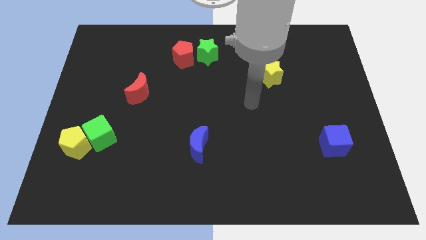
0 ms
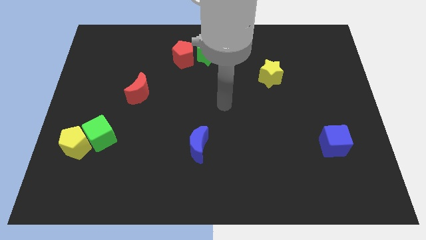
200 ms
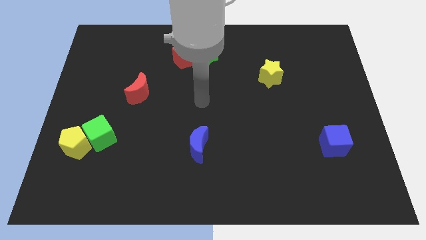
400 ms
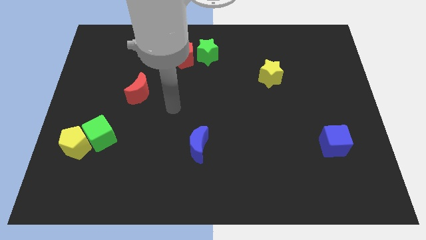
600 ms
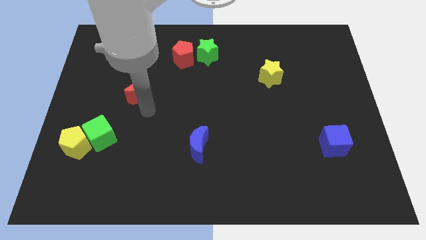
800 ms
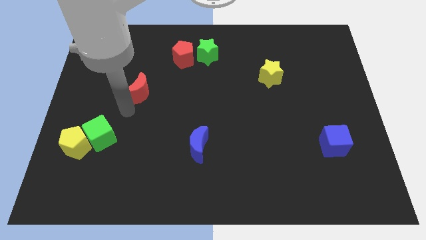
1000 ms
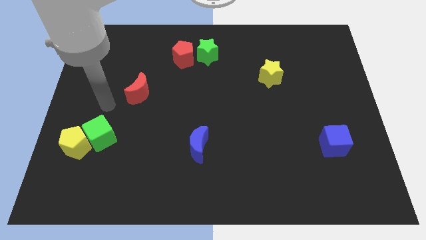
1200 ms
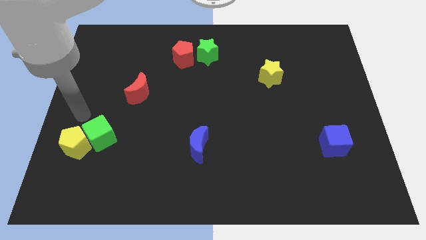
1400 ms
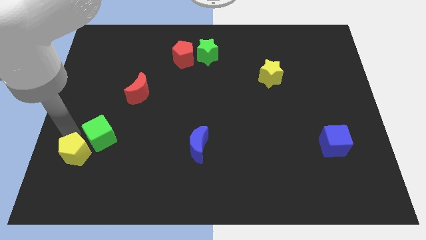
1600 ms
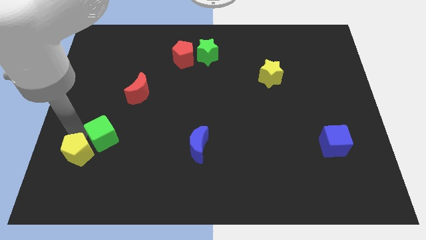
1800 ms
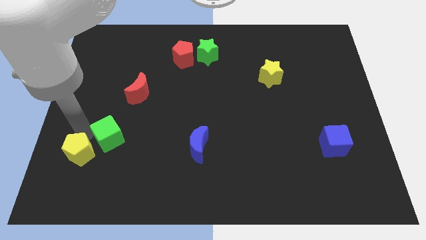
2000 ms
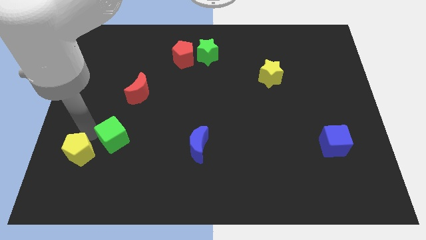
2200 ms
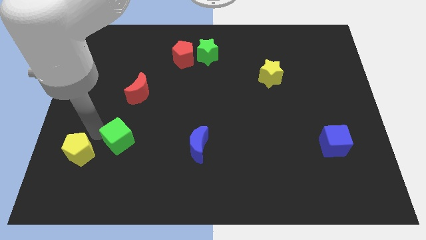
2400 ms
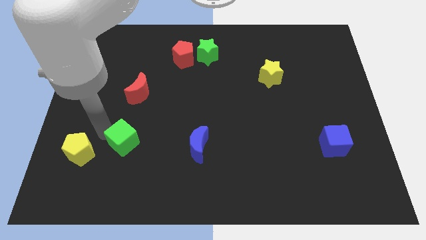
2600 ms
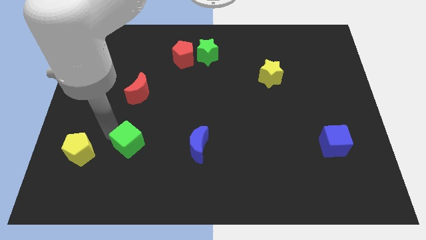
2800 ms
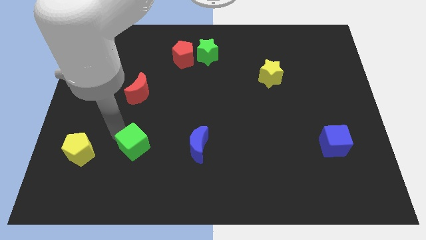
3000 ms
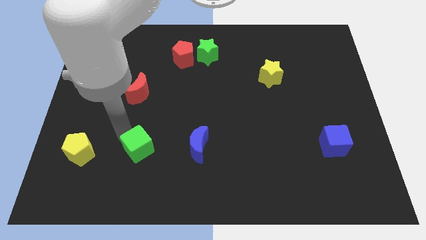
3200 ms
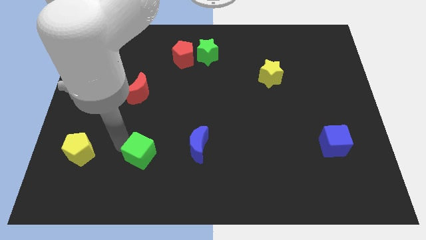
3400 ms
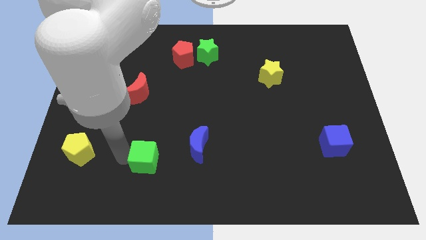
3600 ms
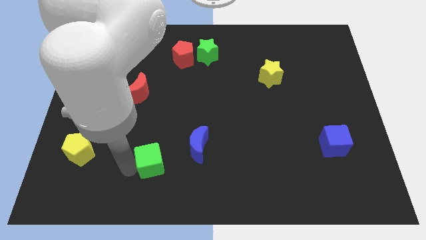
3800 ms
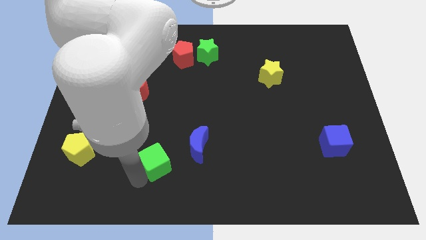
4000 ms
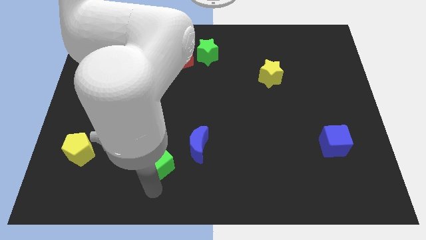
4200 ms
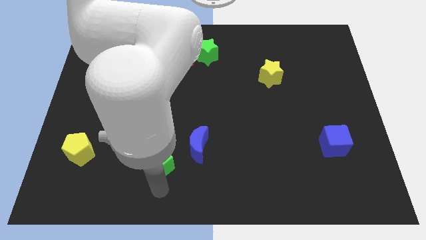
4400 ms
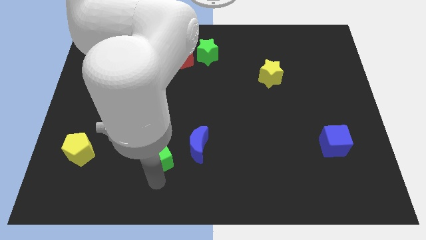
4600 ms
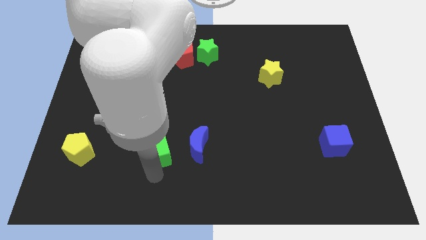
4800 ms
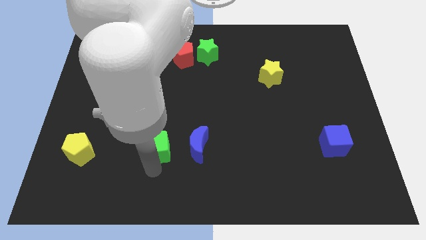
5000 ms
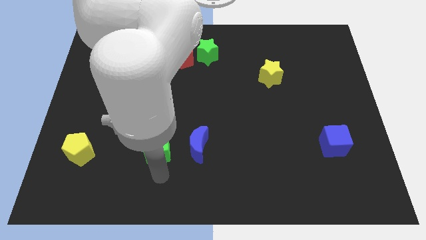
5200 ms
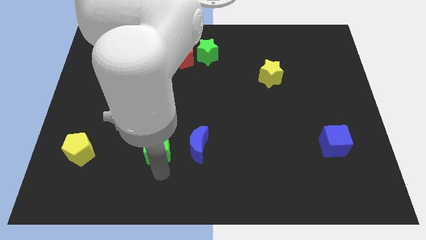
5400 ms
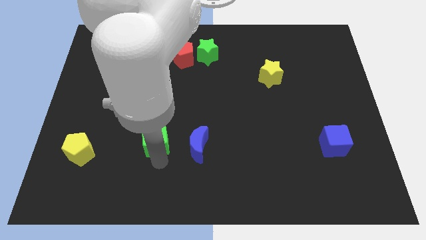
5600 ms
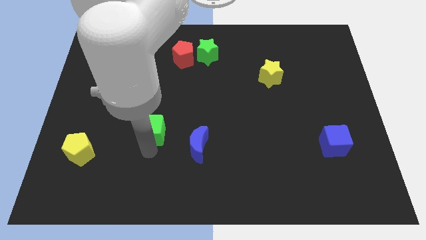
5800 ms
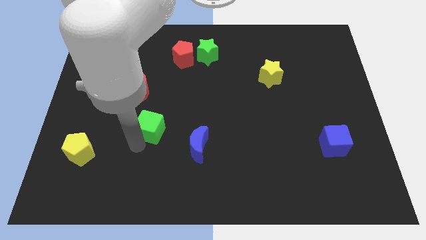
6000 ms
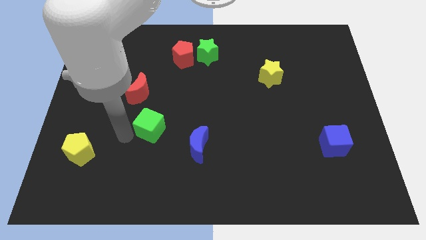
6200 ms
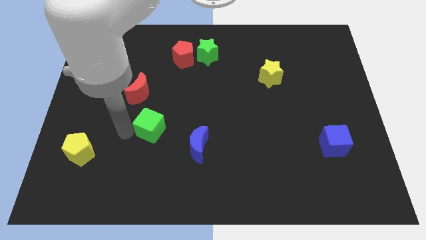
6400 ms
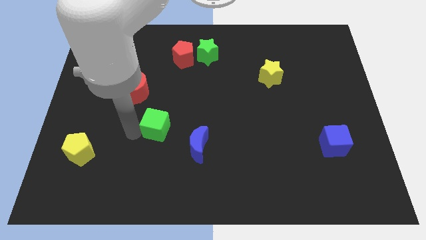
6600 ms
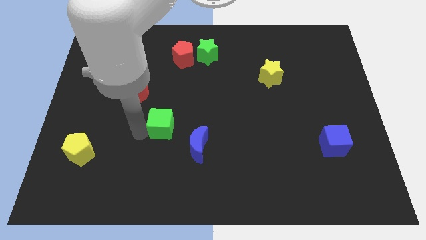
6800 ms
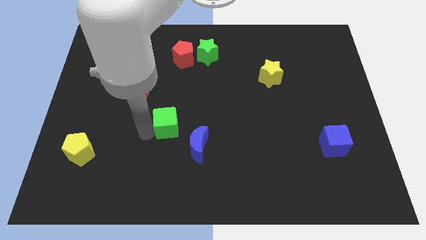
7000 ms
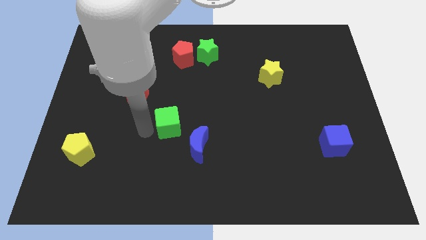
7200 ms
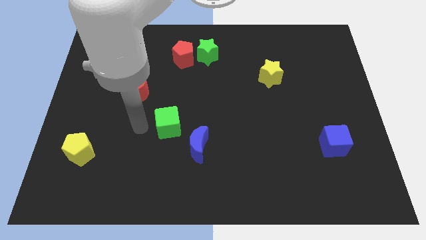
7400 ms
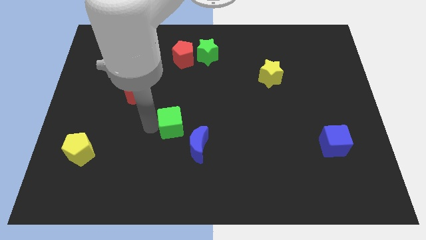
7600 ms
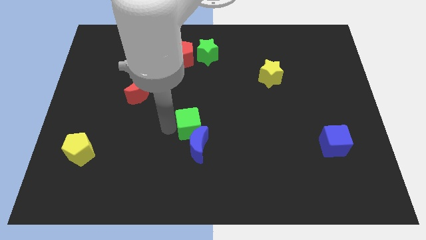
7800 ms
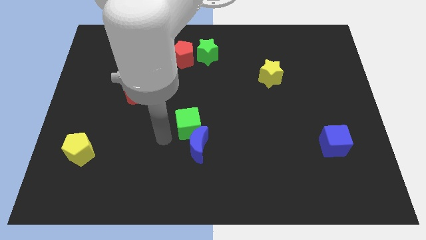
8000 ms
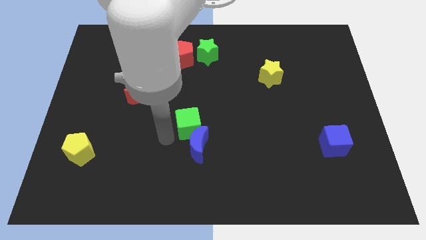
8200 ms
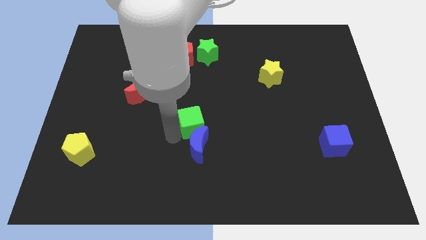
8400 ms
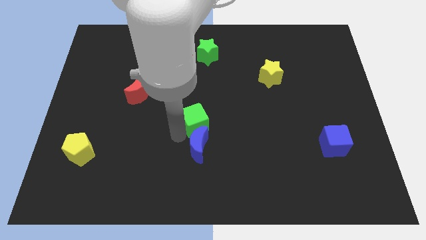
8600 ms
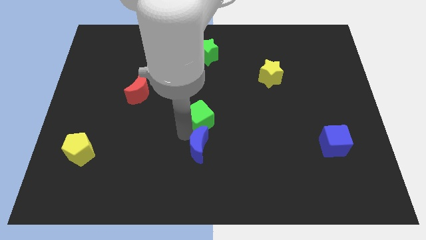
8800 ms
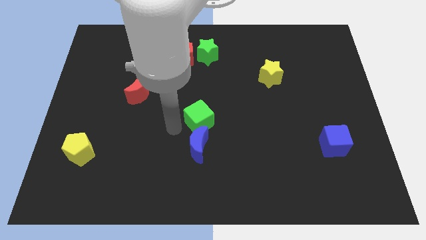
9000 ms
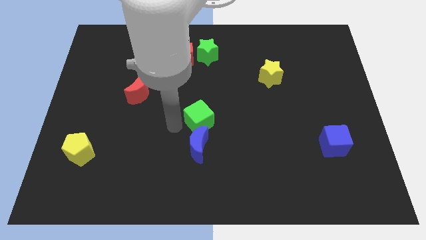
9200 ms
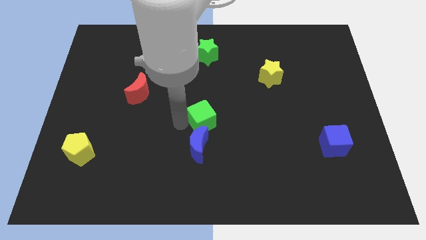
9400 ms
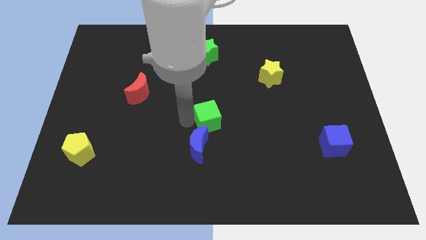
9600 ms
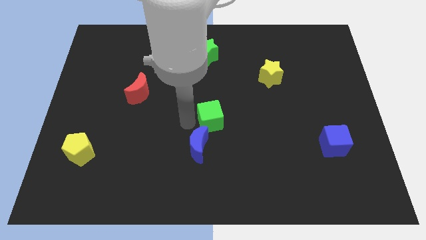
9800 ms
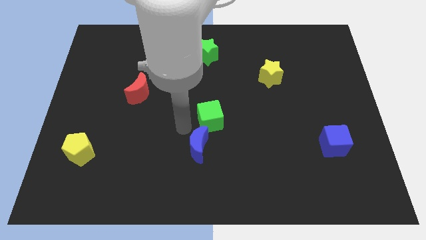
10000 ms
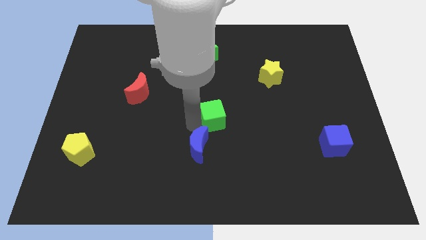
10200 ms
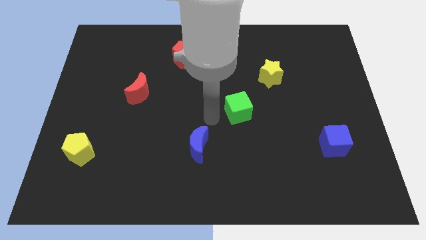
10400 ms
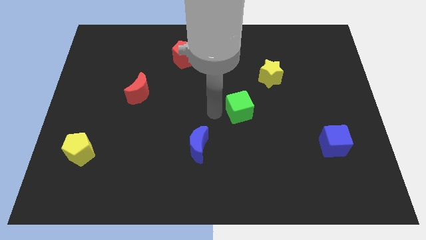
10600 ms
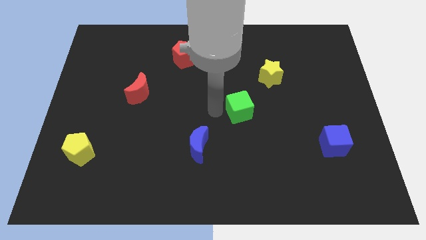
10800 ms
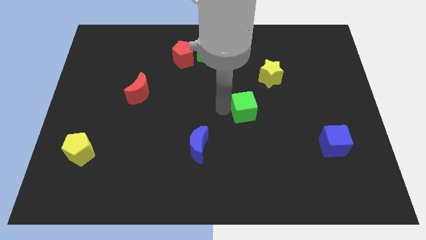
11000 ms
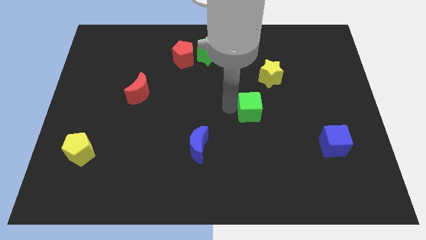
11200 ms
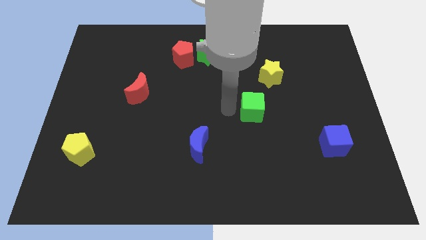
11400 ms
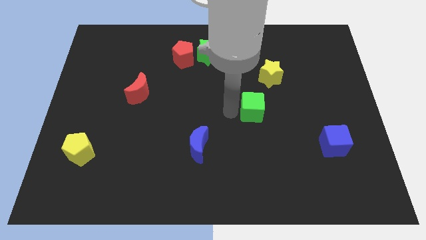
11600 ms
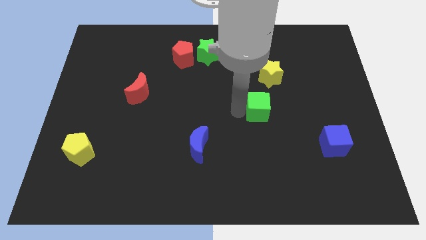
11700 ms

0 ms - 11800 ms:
move the green cube to the bottom side of the yellow star
